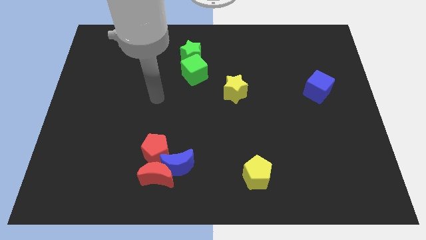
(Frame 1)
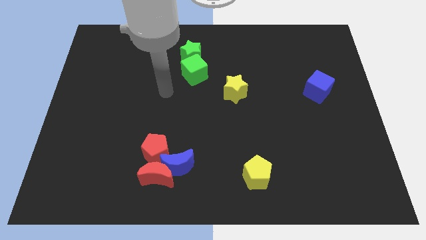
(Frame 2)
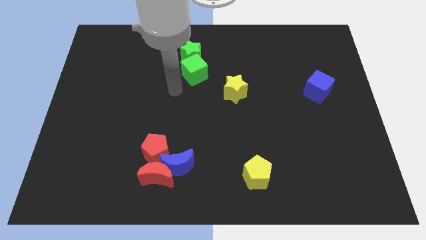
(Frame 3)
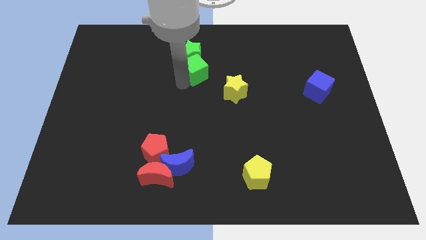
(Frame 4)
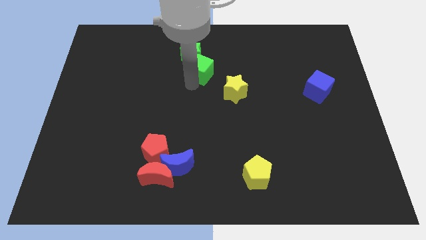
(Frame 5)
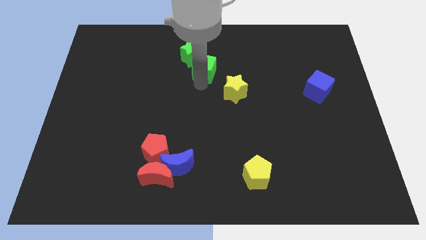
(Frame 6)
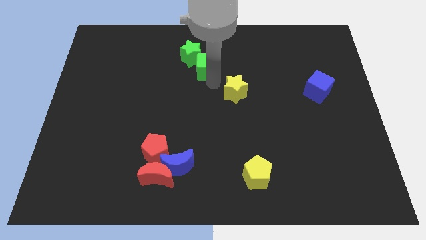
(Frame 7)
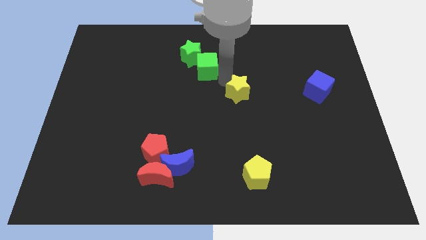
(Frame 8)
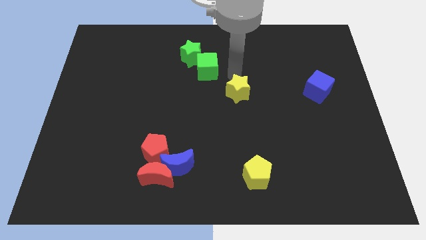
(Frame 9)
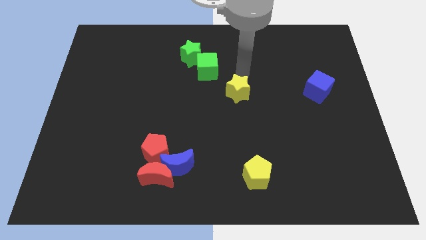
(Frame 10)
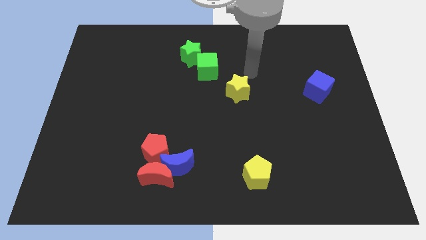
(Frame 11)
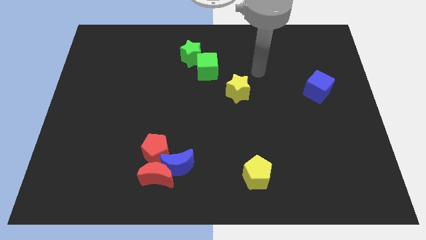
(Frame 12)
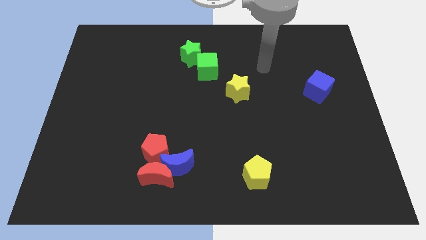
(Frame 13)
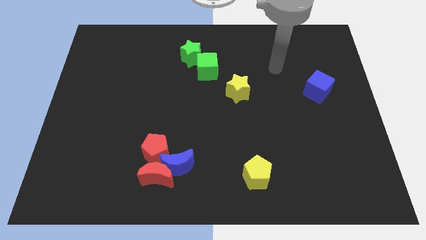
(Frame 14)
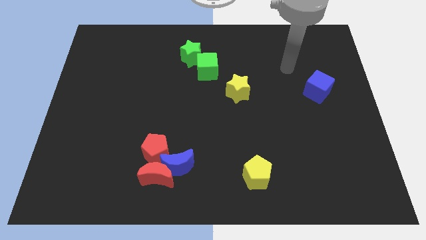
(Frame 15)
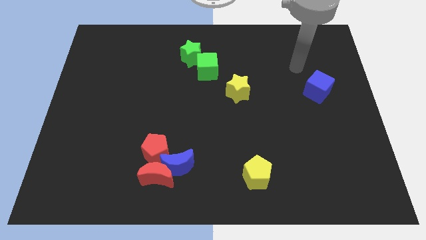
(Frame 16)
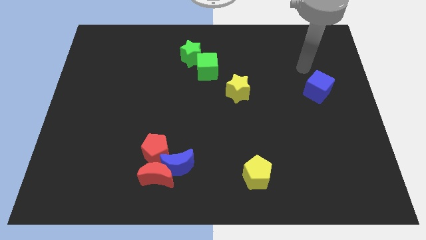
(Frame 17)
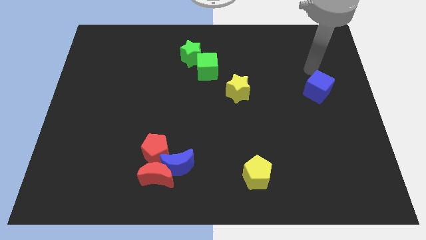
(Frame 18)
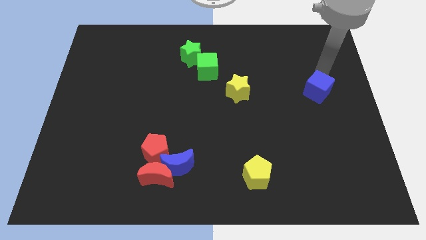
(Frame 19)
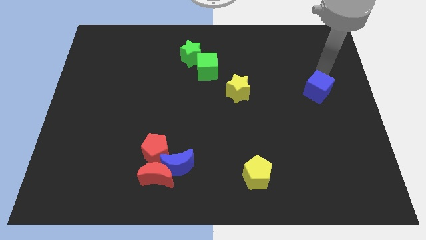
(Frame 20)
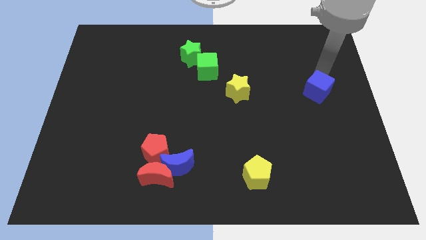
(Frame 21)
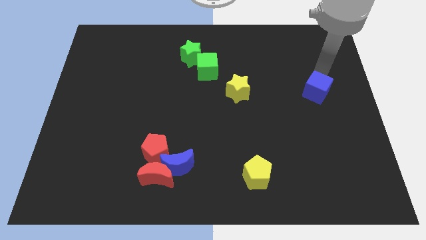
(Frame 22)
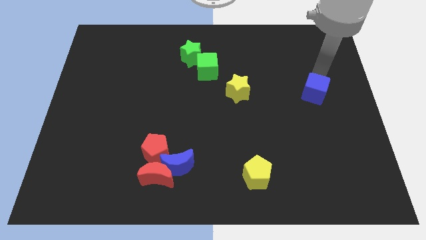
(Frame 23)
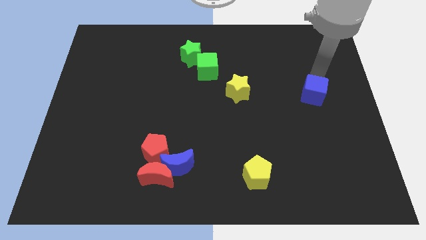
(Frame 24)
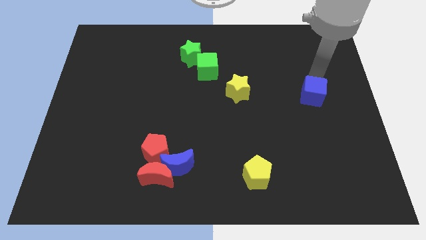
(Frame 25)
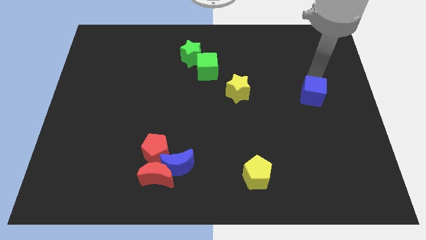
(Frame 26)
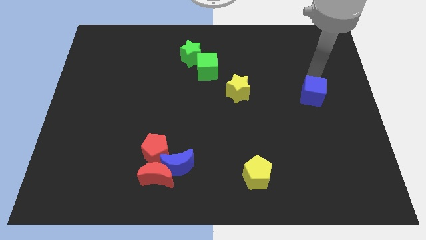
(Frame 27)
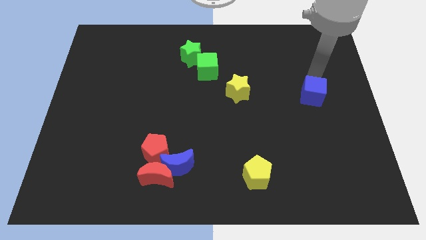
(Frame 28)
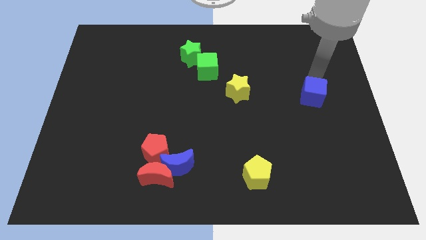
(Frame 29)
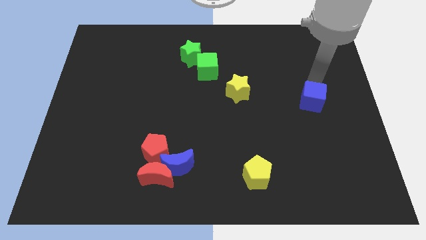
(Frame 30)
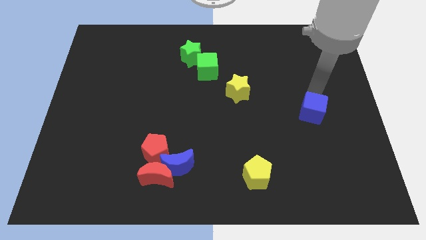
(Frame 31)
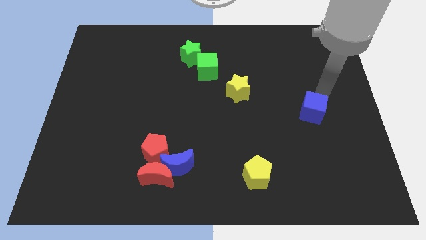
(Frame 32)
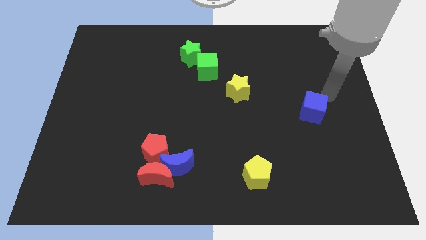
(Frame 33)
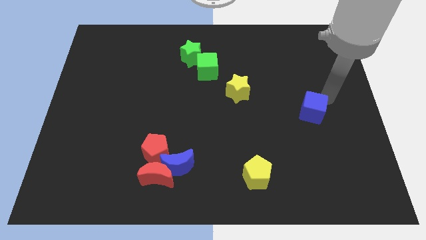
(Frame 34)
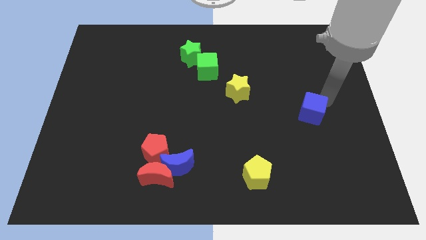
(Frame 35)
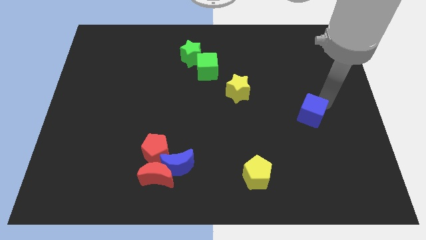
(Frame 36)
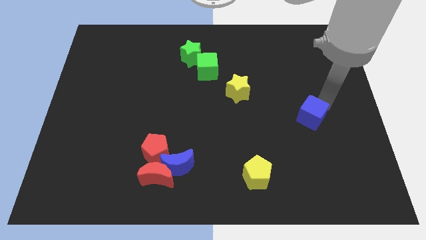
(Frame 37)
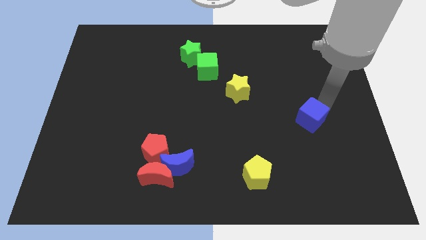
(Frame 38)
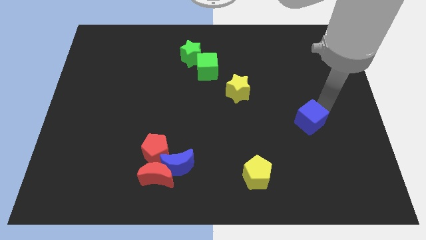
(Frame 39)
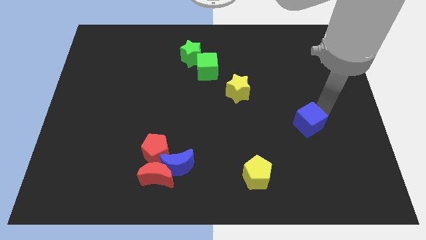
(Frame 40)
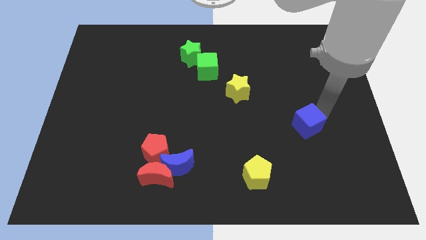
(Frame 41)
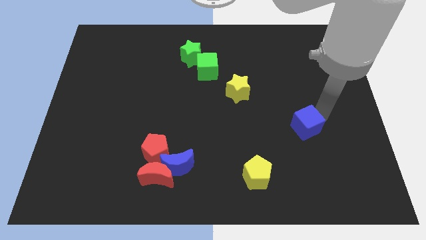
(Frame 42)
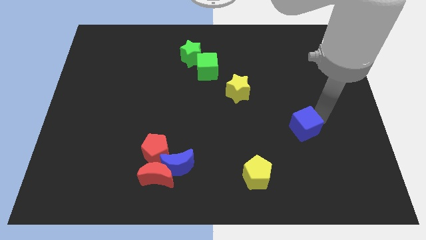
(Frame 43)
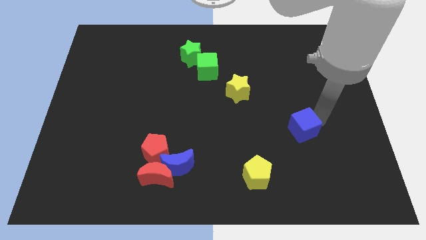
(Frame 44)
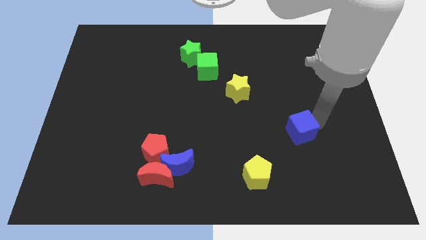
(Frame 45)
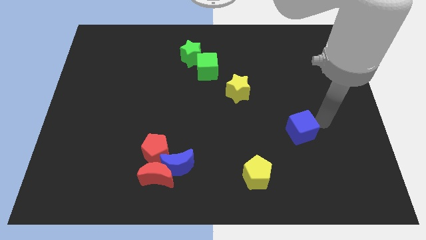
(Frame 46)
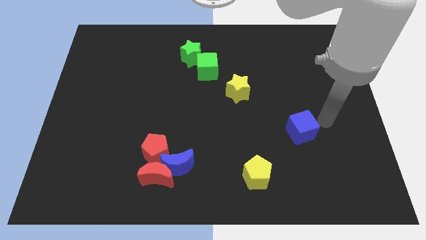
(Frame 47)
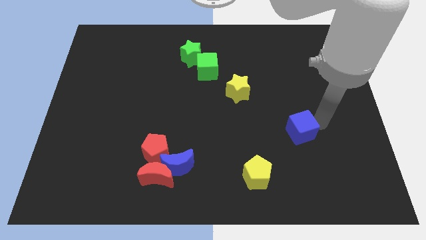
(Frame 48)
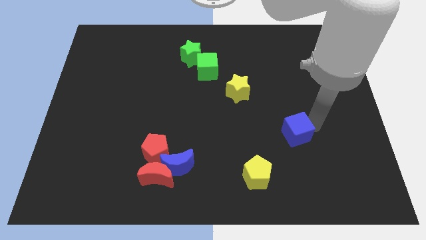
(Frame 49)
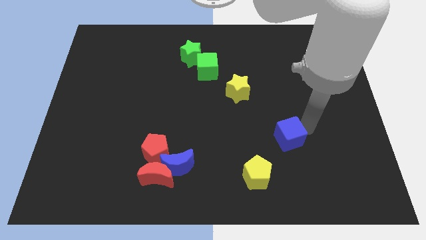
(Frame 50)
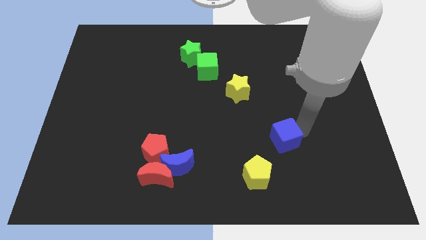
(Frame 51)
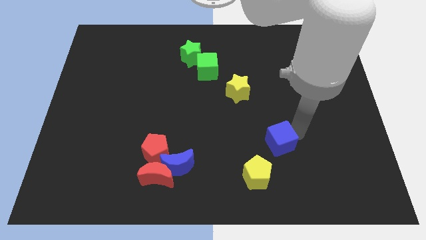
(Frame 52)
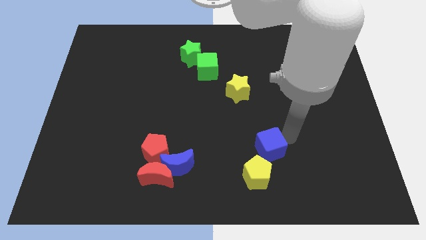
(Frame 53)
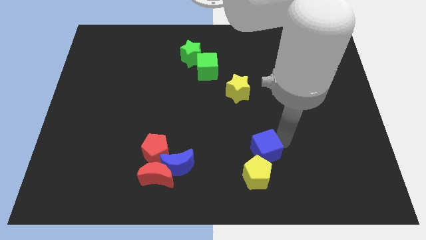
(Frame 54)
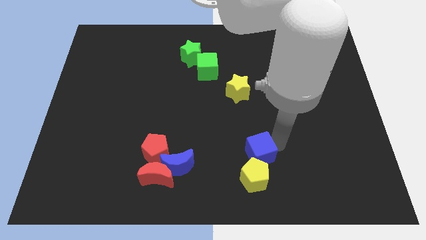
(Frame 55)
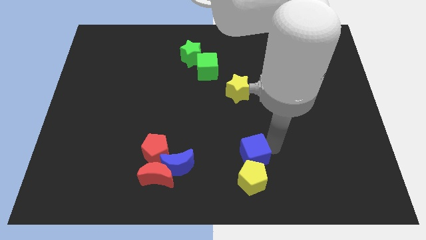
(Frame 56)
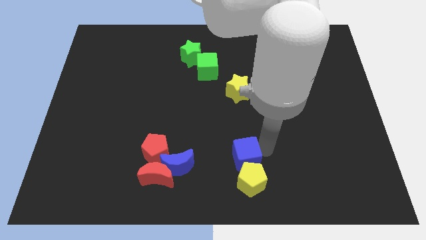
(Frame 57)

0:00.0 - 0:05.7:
push the blue cube right of the blue moon

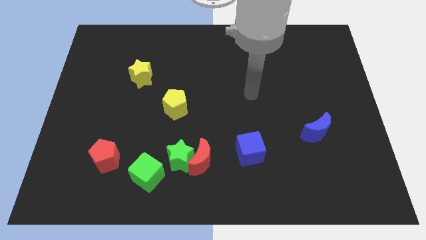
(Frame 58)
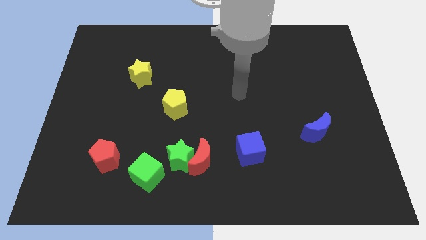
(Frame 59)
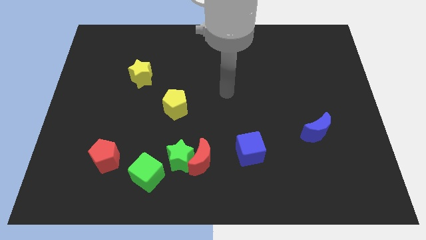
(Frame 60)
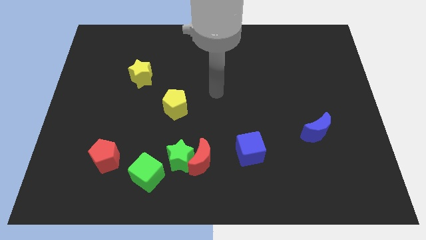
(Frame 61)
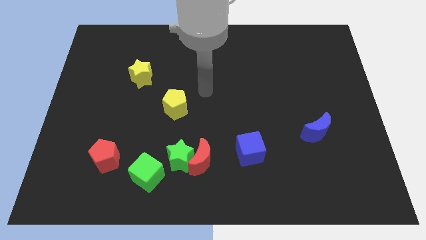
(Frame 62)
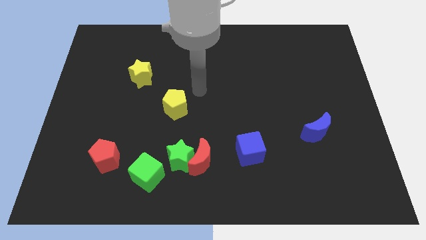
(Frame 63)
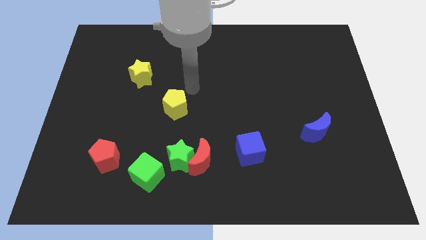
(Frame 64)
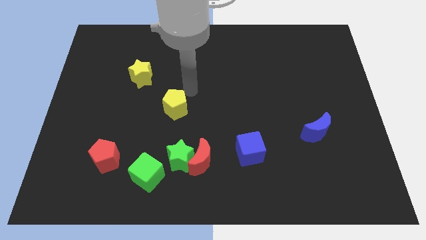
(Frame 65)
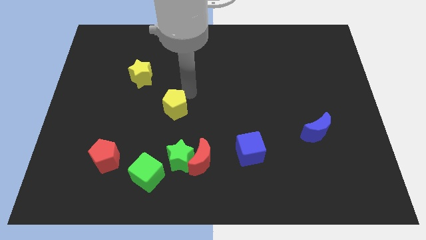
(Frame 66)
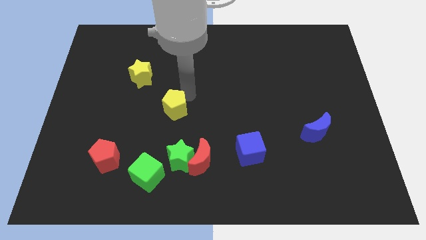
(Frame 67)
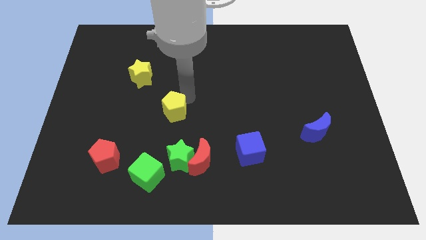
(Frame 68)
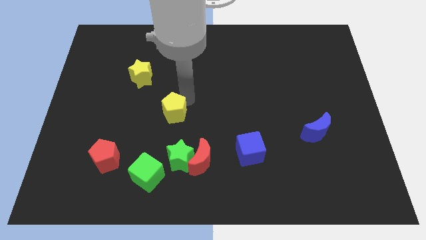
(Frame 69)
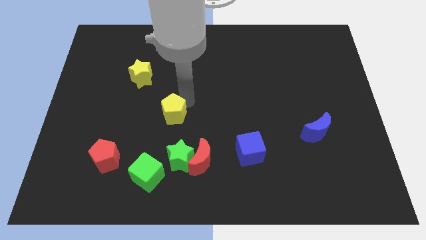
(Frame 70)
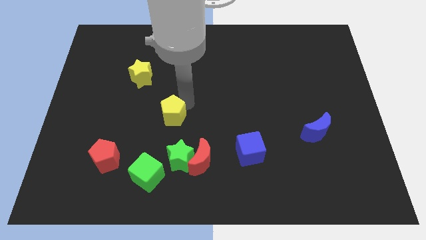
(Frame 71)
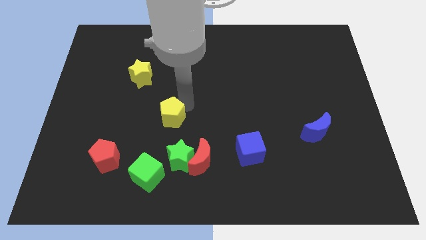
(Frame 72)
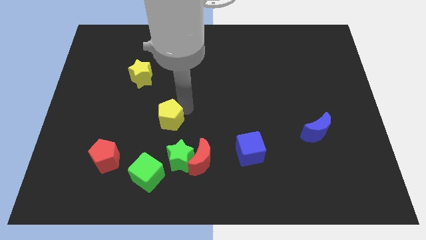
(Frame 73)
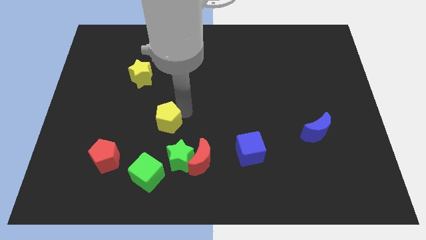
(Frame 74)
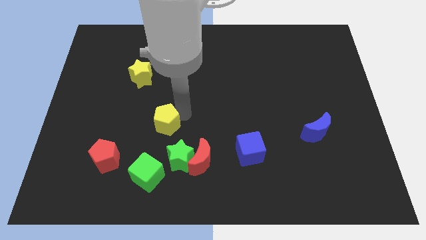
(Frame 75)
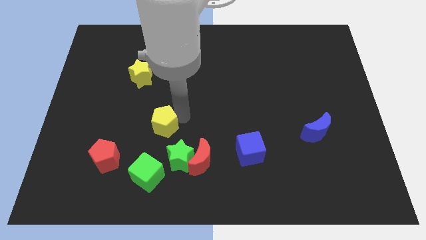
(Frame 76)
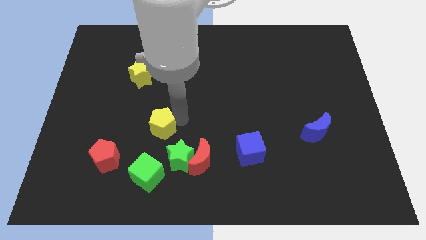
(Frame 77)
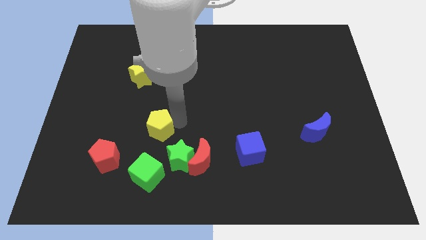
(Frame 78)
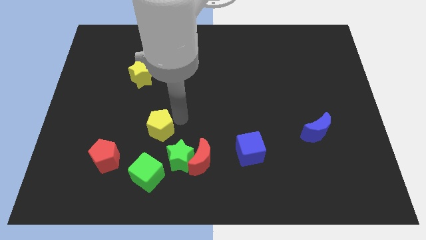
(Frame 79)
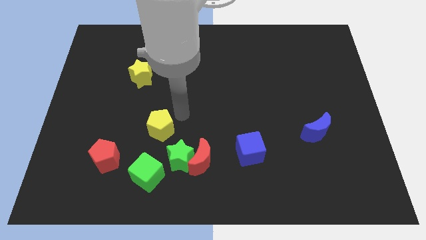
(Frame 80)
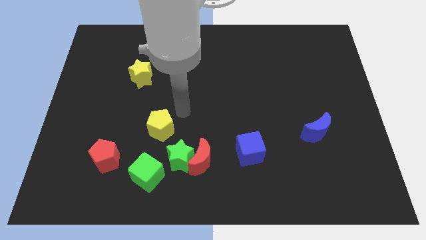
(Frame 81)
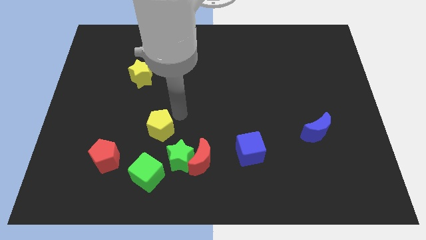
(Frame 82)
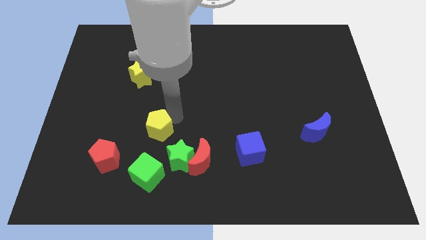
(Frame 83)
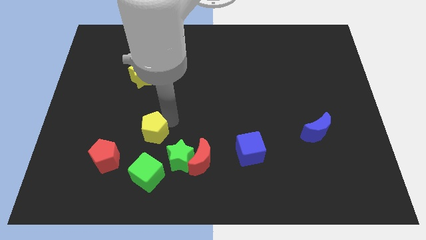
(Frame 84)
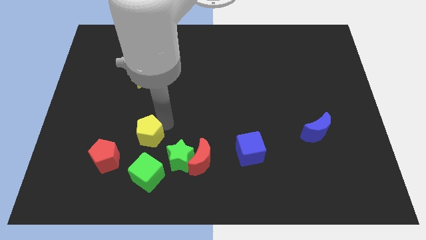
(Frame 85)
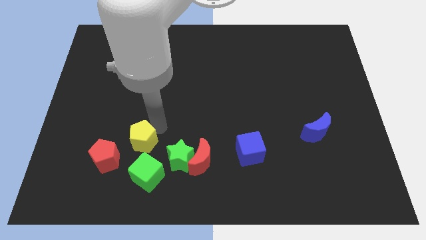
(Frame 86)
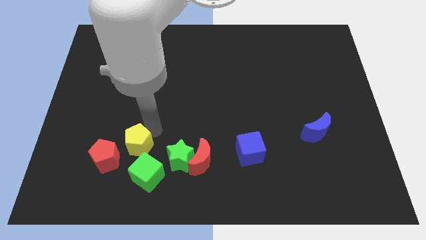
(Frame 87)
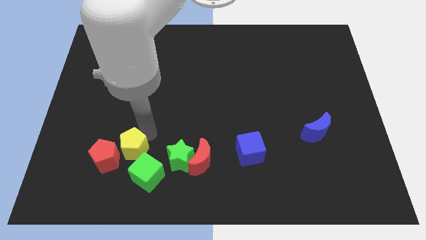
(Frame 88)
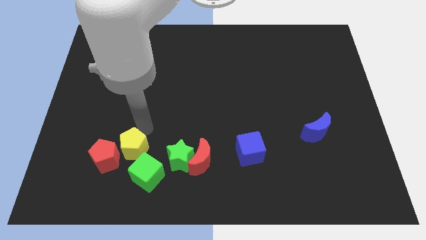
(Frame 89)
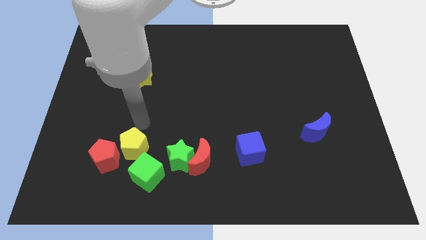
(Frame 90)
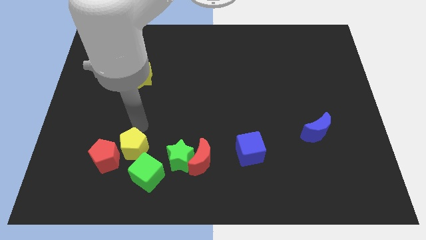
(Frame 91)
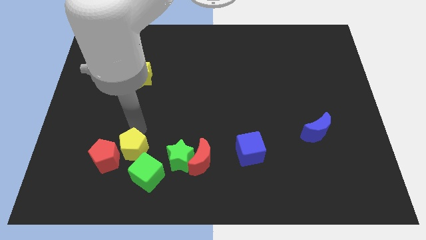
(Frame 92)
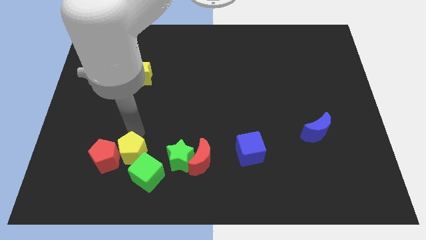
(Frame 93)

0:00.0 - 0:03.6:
push the yellow pentagon to the bottom right of the red pentagon
